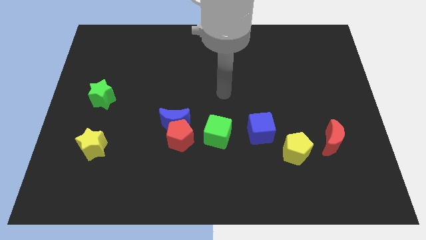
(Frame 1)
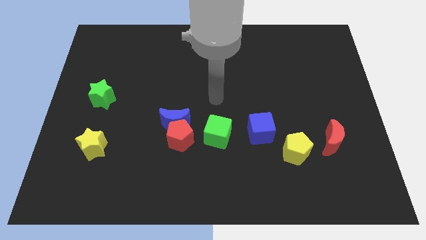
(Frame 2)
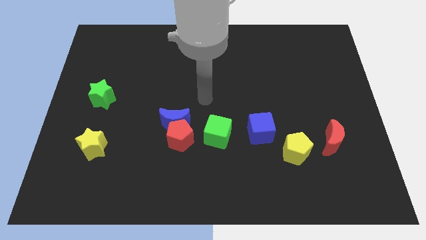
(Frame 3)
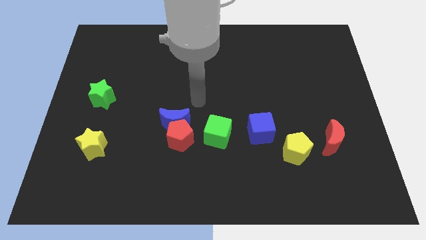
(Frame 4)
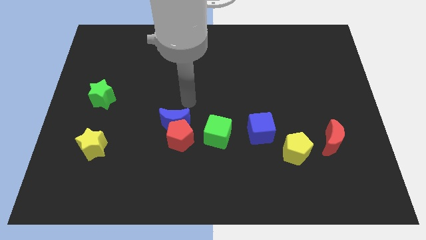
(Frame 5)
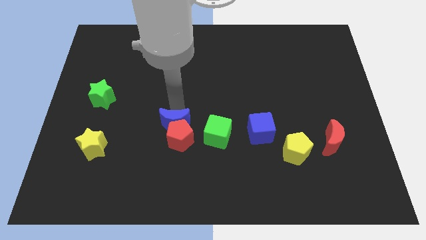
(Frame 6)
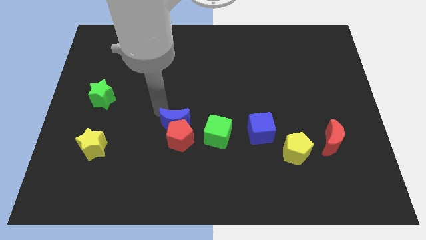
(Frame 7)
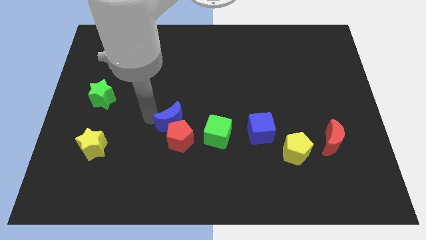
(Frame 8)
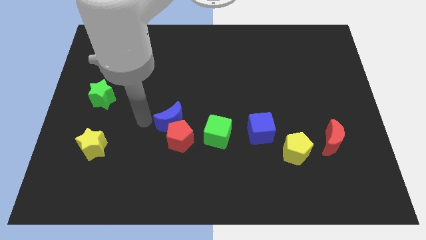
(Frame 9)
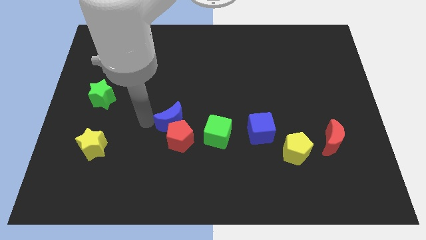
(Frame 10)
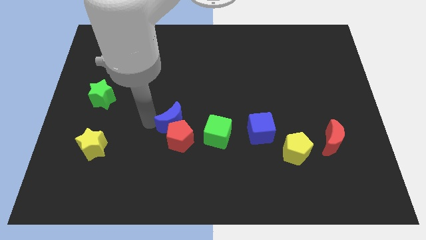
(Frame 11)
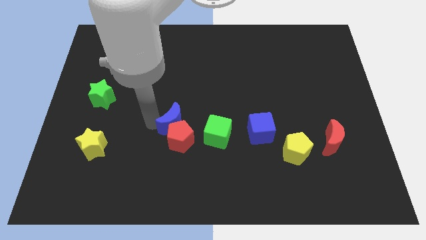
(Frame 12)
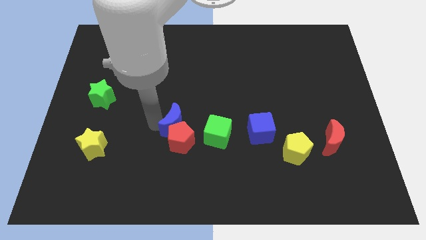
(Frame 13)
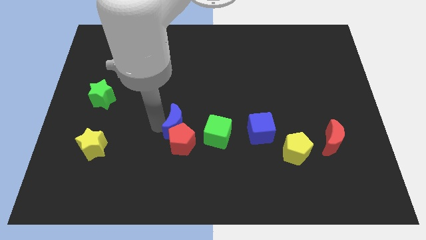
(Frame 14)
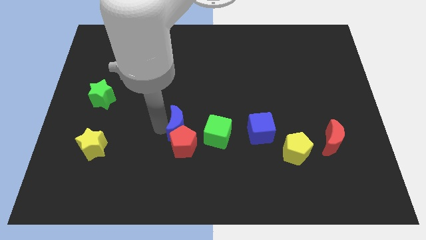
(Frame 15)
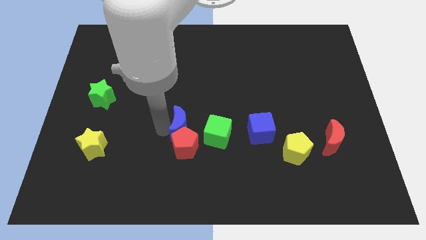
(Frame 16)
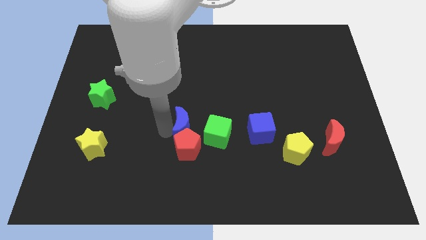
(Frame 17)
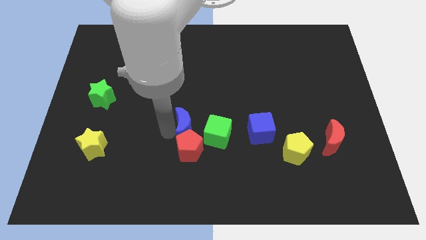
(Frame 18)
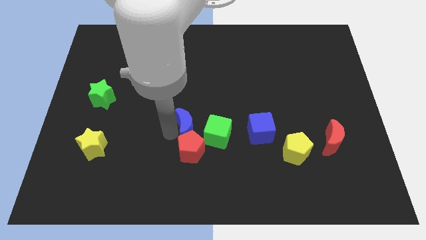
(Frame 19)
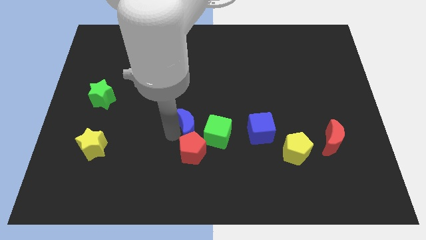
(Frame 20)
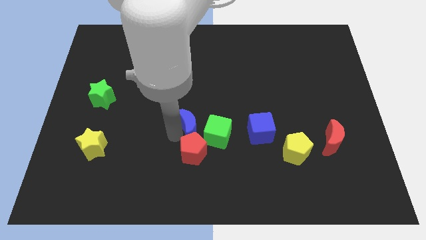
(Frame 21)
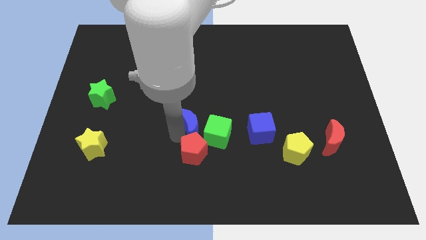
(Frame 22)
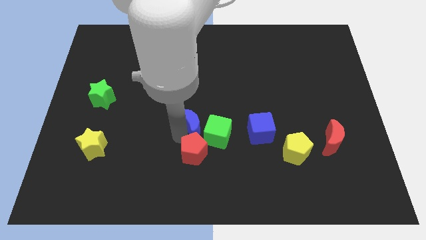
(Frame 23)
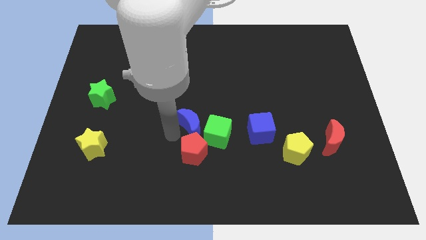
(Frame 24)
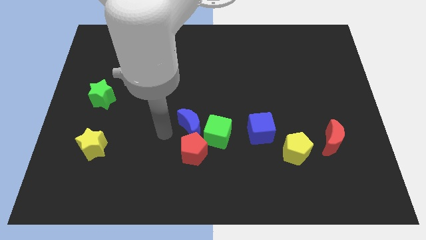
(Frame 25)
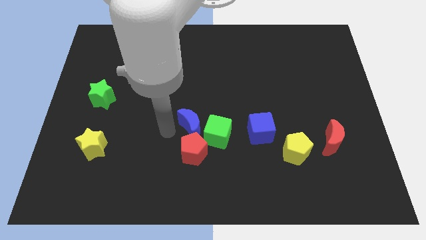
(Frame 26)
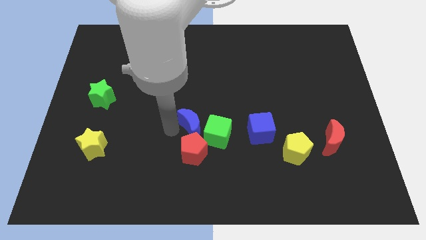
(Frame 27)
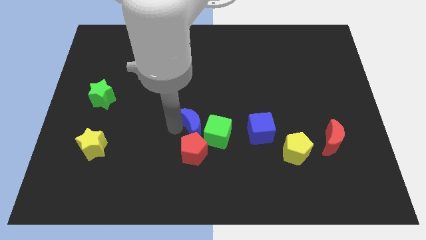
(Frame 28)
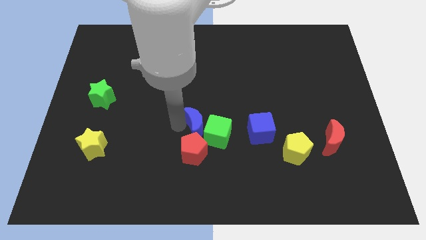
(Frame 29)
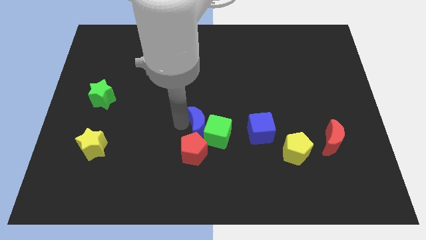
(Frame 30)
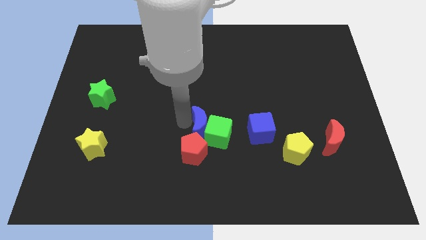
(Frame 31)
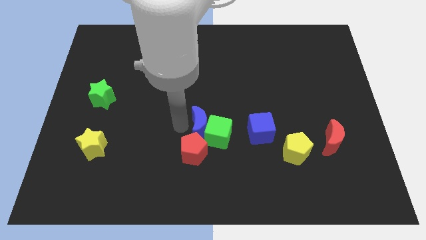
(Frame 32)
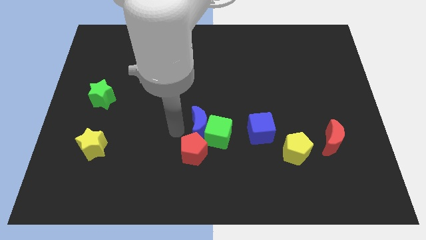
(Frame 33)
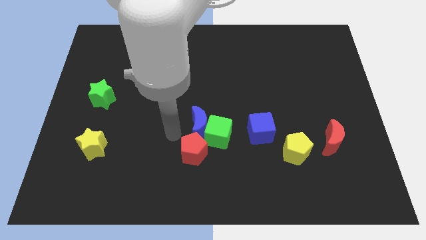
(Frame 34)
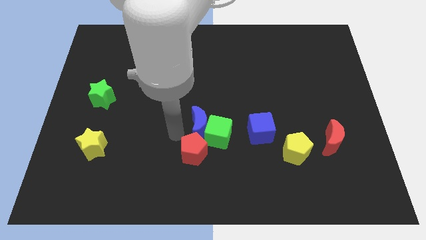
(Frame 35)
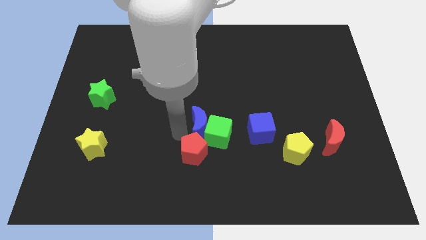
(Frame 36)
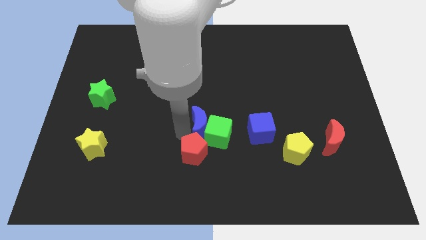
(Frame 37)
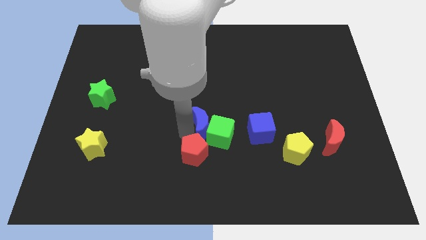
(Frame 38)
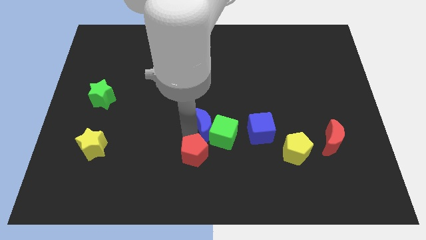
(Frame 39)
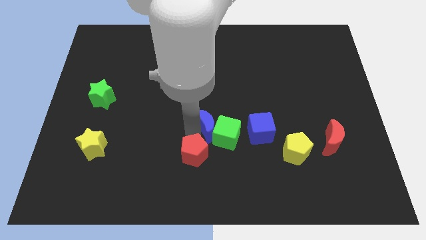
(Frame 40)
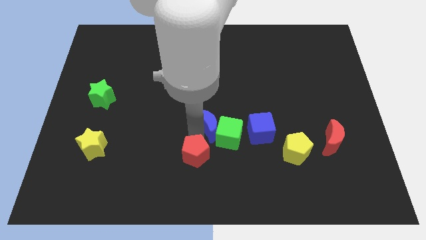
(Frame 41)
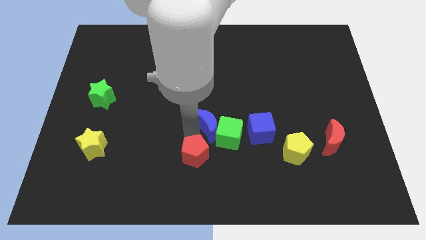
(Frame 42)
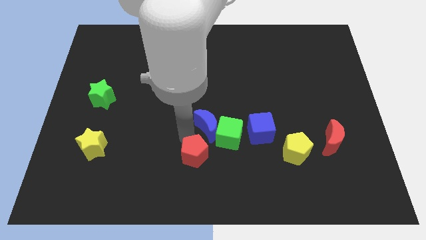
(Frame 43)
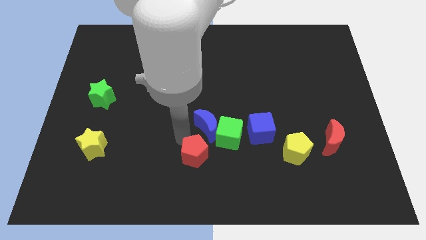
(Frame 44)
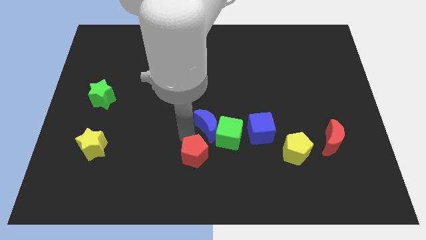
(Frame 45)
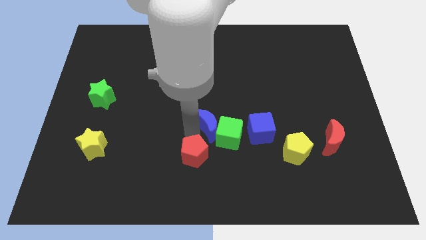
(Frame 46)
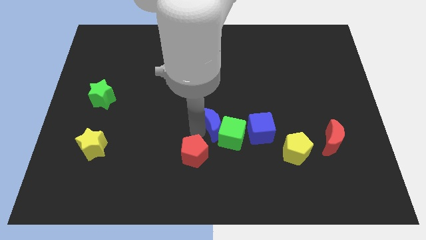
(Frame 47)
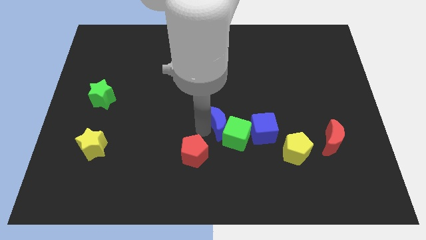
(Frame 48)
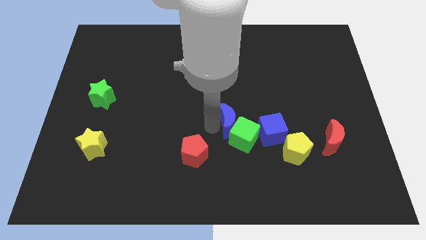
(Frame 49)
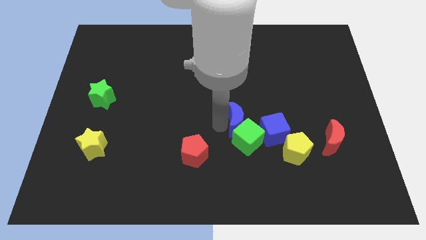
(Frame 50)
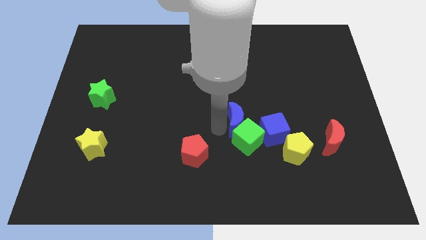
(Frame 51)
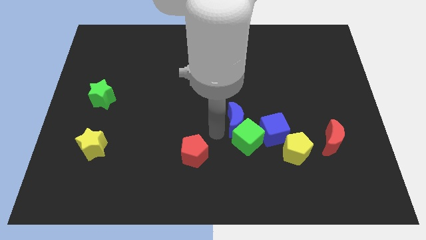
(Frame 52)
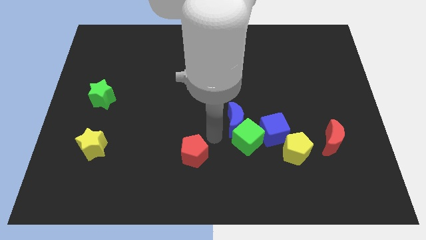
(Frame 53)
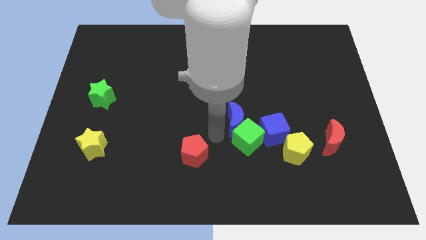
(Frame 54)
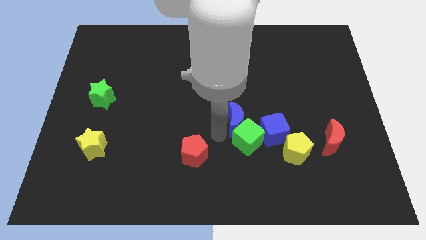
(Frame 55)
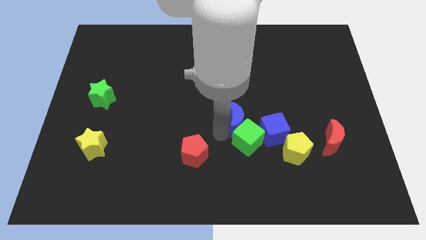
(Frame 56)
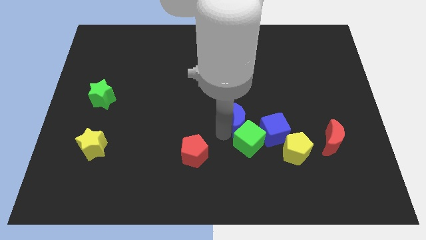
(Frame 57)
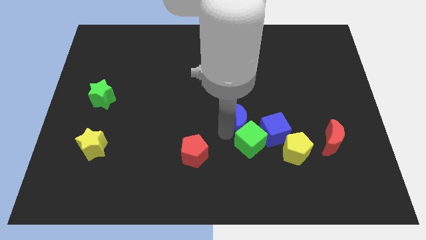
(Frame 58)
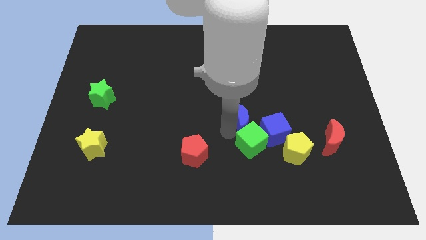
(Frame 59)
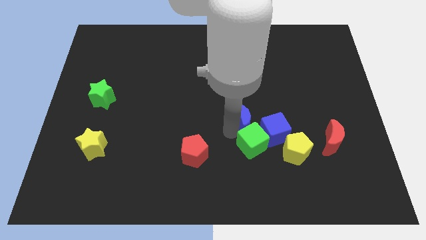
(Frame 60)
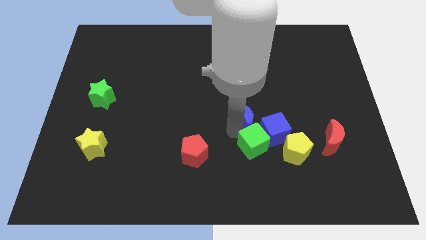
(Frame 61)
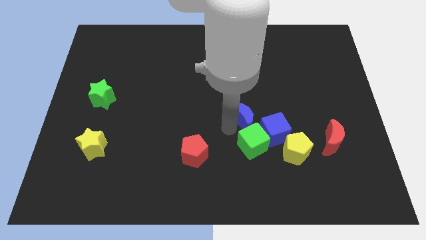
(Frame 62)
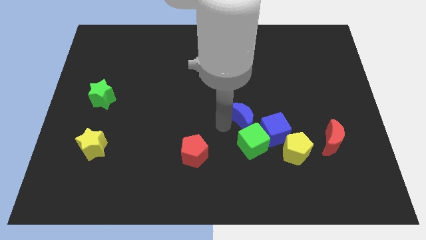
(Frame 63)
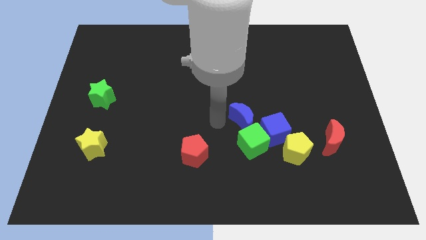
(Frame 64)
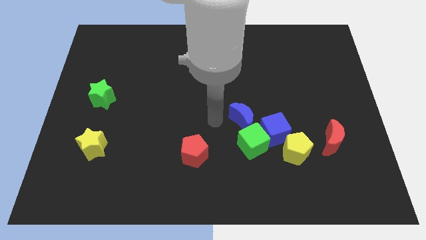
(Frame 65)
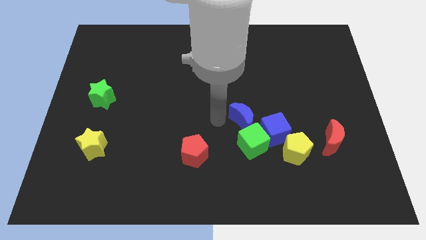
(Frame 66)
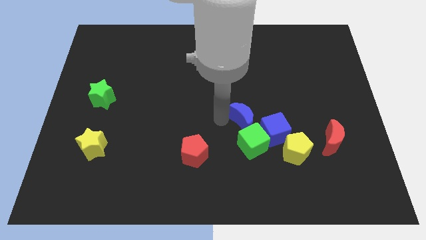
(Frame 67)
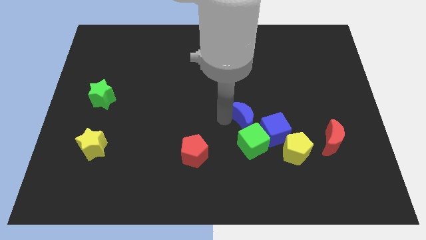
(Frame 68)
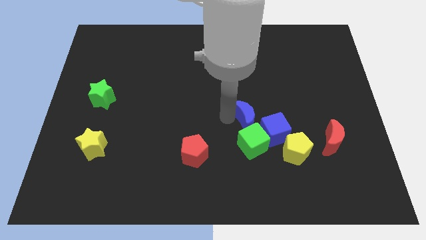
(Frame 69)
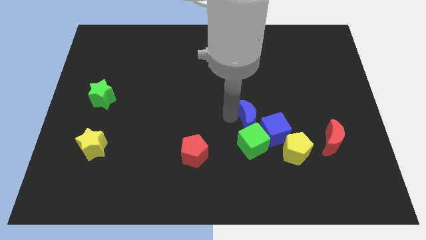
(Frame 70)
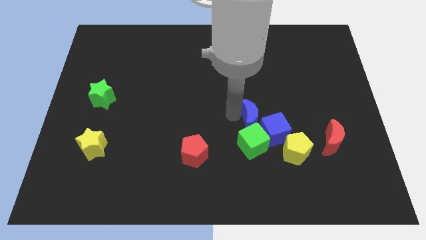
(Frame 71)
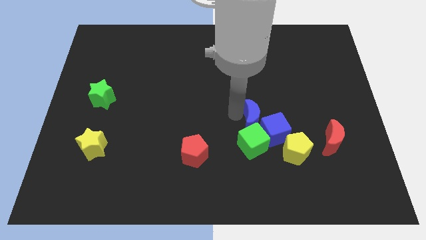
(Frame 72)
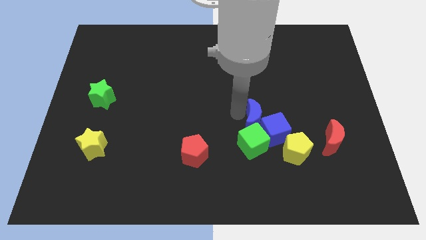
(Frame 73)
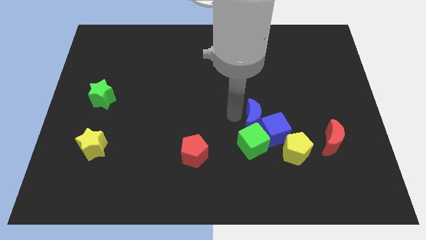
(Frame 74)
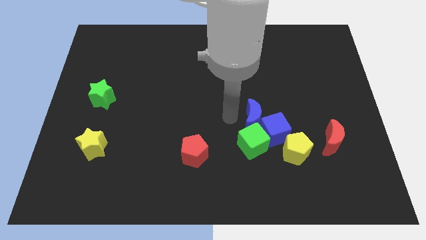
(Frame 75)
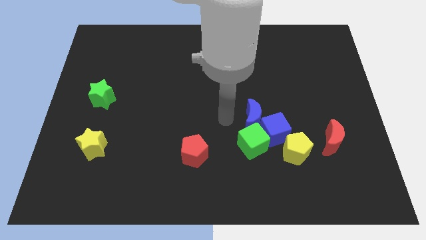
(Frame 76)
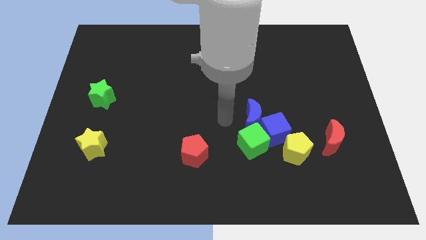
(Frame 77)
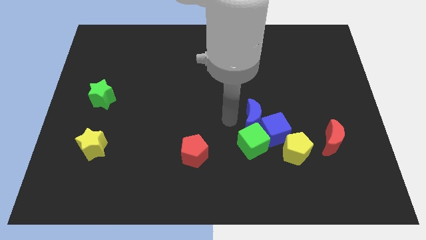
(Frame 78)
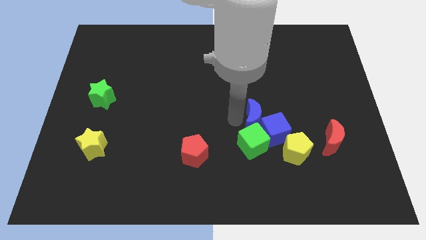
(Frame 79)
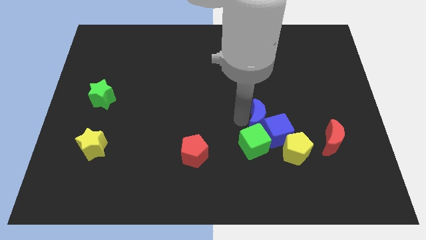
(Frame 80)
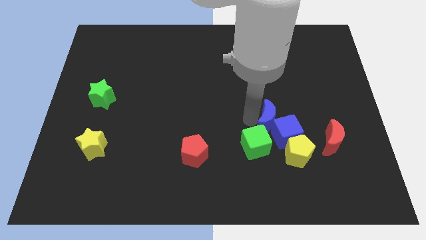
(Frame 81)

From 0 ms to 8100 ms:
push the blue moon right
